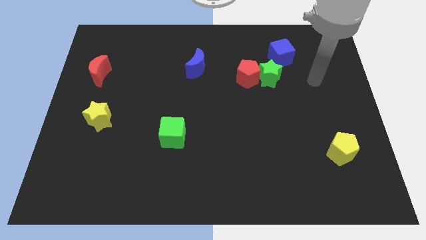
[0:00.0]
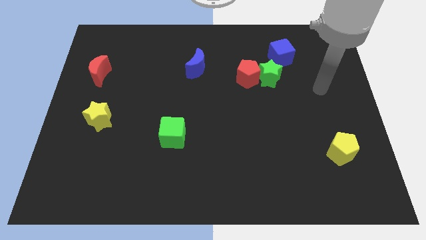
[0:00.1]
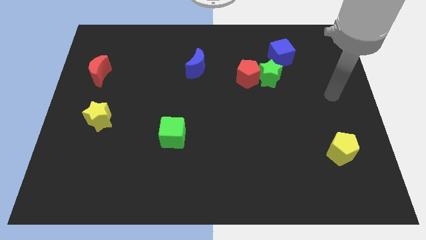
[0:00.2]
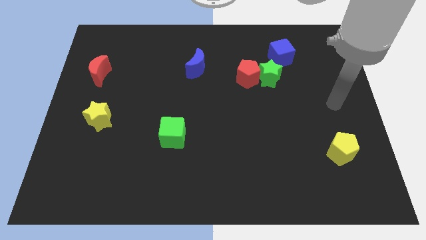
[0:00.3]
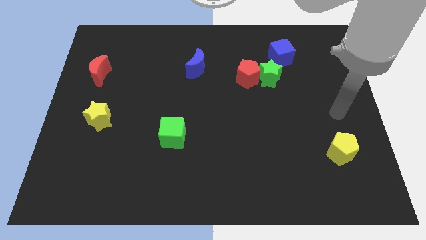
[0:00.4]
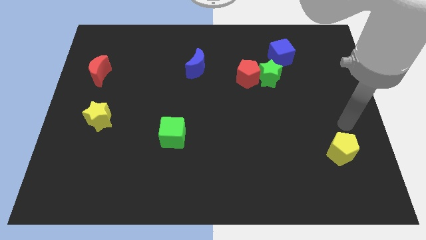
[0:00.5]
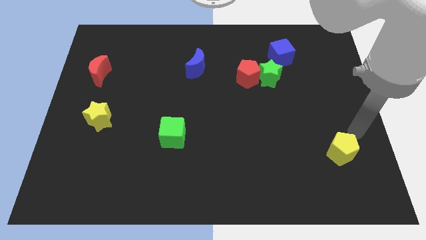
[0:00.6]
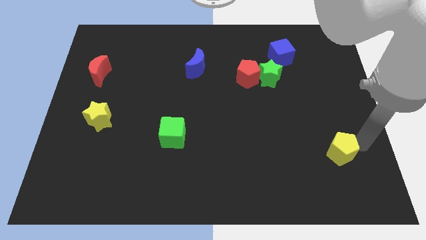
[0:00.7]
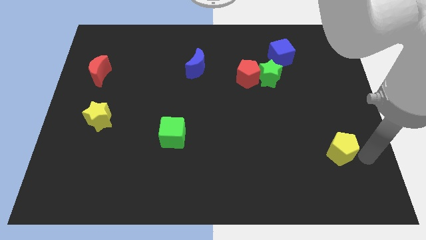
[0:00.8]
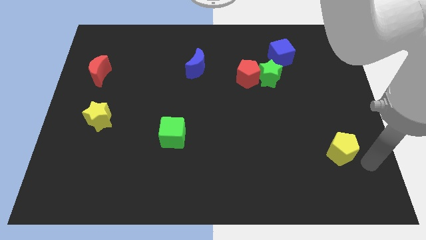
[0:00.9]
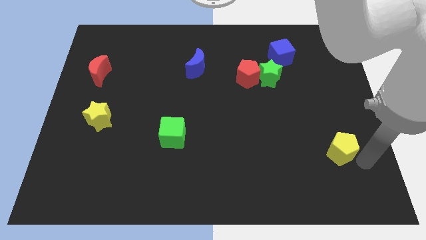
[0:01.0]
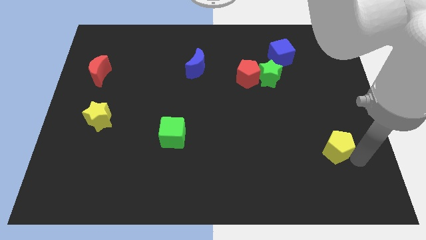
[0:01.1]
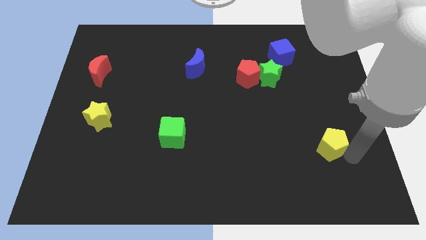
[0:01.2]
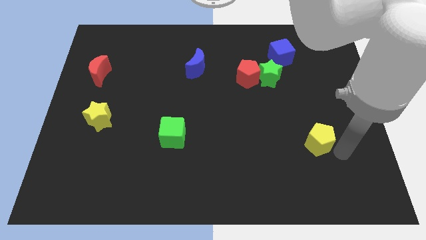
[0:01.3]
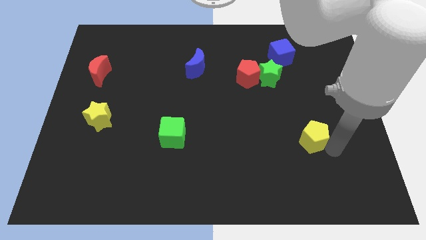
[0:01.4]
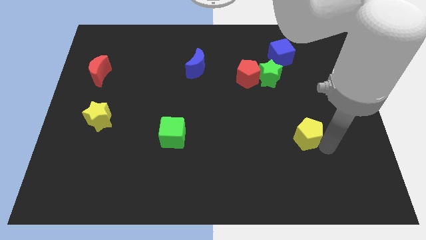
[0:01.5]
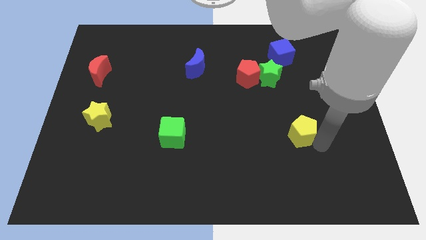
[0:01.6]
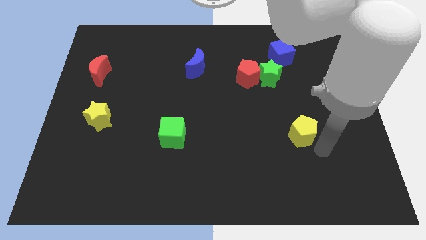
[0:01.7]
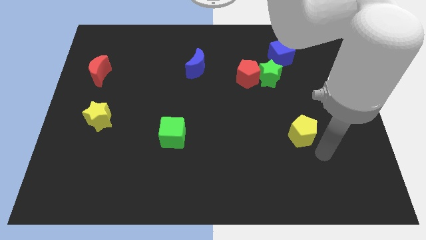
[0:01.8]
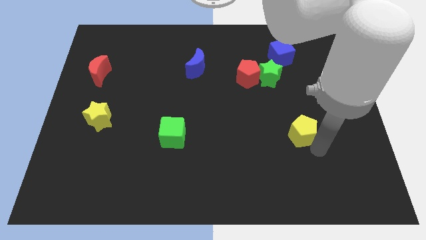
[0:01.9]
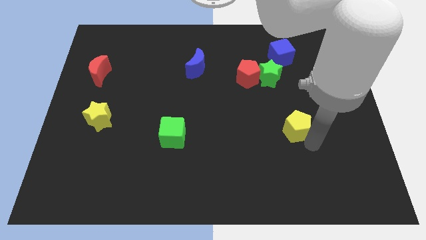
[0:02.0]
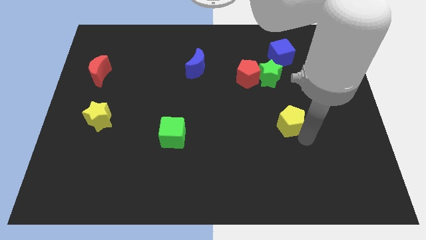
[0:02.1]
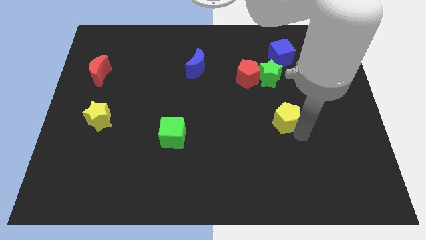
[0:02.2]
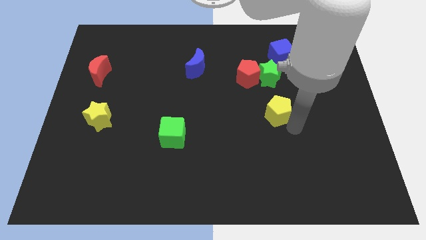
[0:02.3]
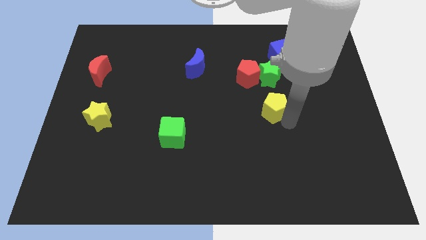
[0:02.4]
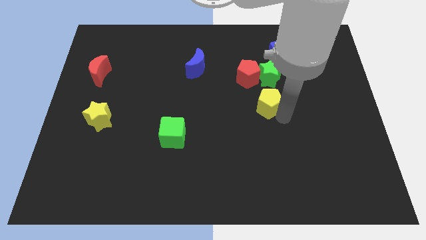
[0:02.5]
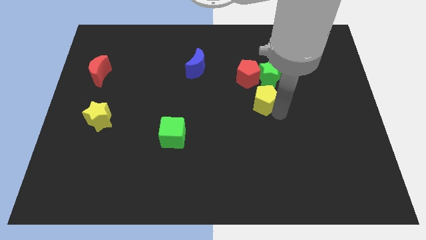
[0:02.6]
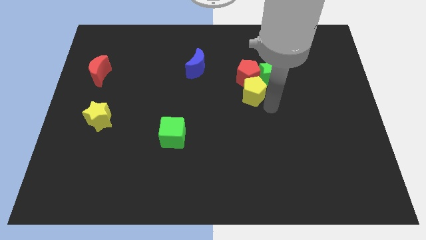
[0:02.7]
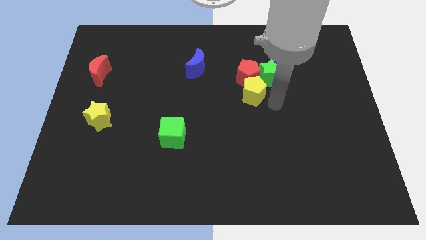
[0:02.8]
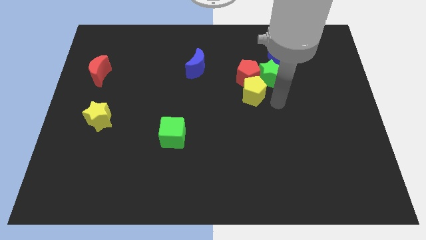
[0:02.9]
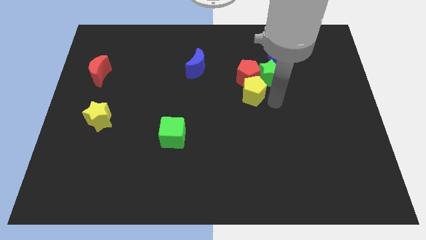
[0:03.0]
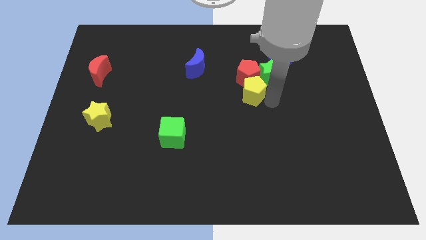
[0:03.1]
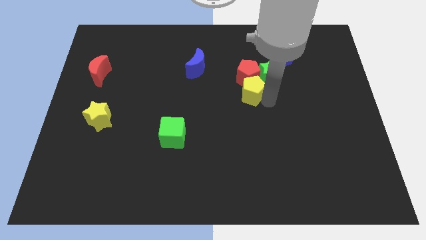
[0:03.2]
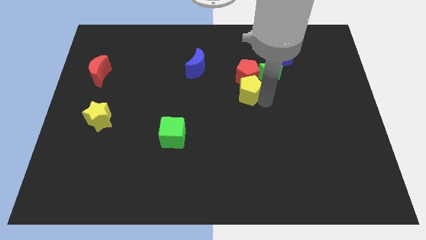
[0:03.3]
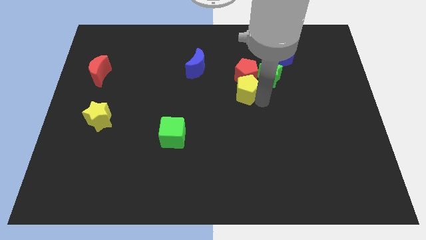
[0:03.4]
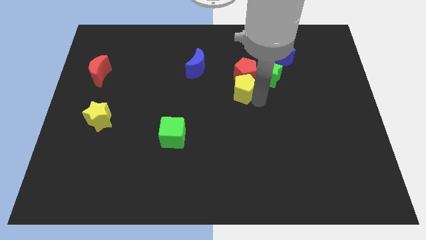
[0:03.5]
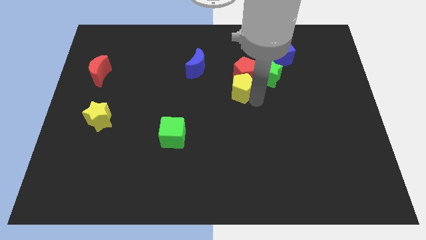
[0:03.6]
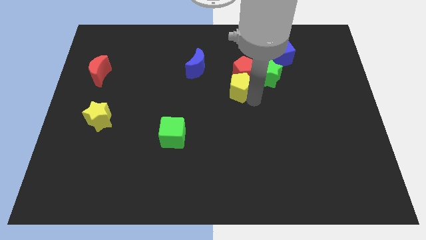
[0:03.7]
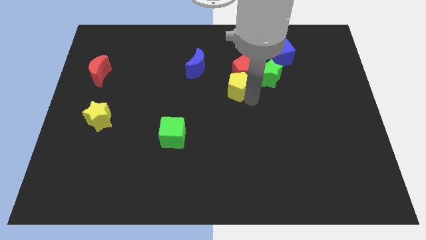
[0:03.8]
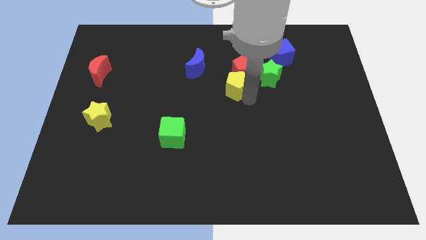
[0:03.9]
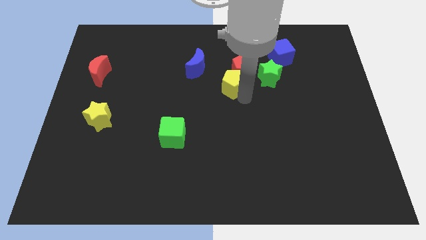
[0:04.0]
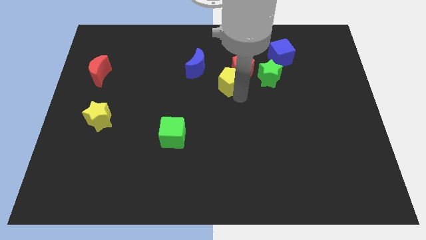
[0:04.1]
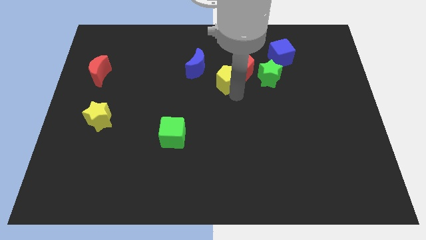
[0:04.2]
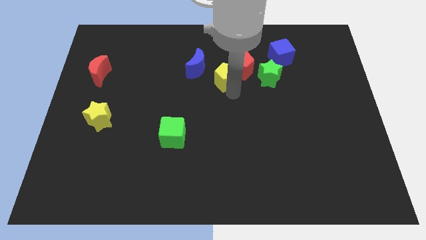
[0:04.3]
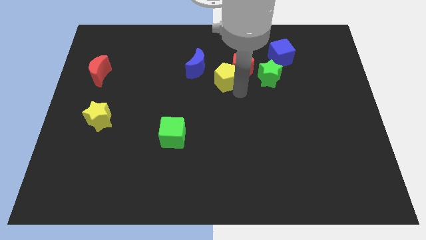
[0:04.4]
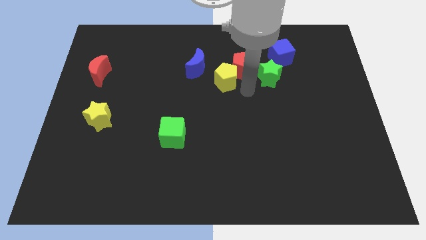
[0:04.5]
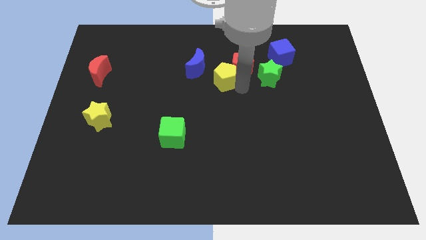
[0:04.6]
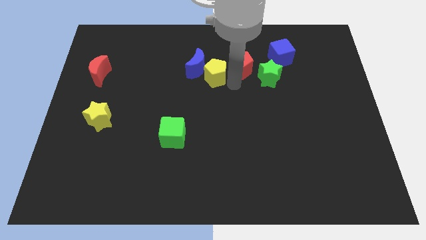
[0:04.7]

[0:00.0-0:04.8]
move the yellow pentagon close to the blue moon

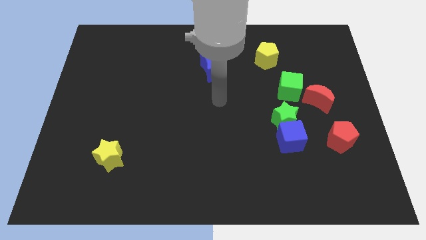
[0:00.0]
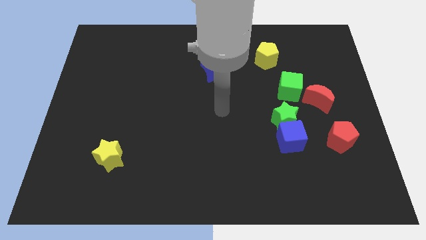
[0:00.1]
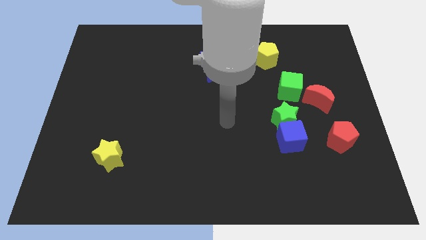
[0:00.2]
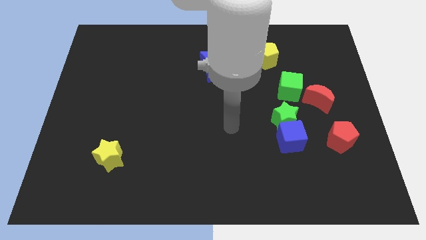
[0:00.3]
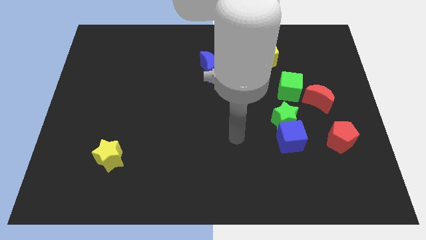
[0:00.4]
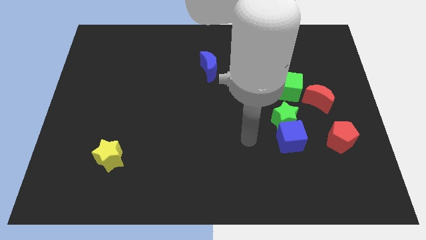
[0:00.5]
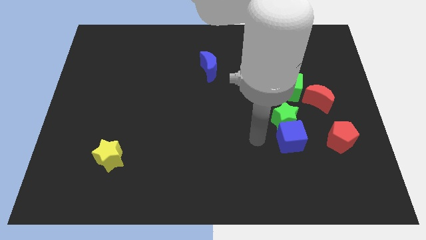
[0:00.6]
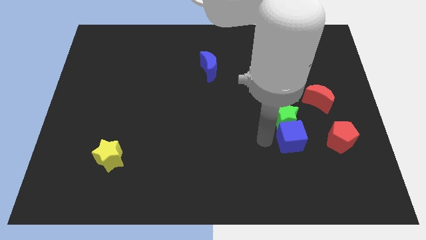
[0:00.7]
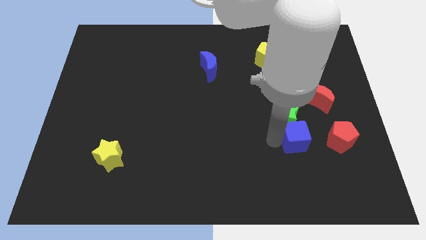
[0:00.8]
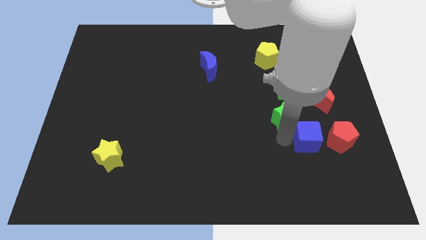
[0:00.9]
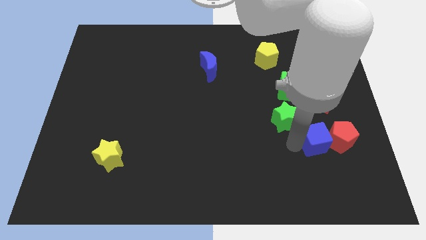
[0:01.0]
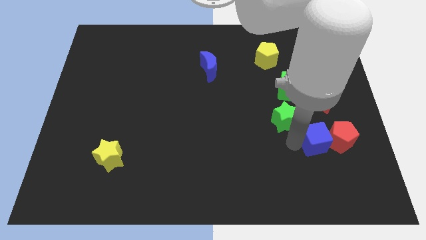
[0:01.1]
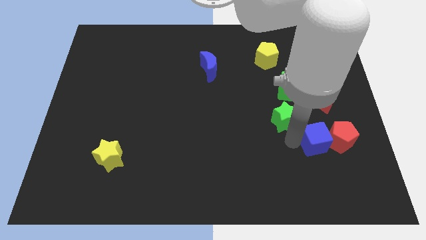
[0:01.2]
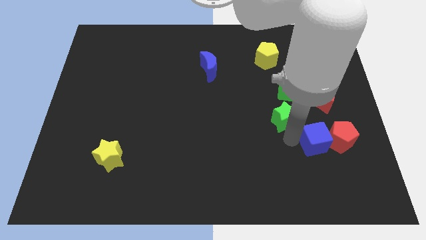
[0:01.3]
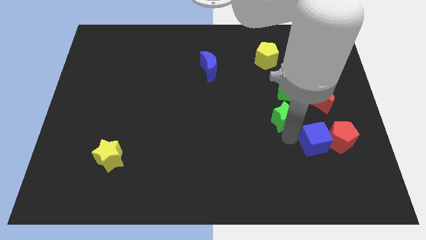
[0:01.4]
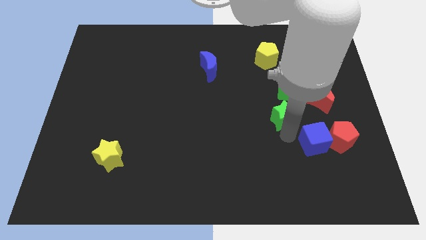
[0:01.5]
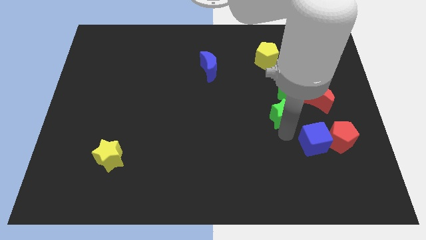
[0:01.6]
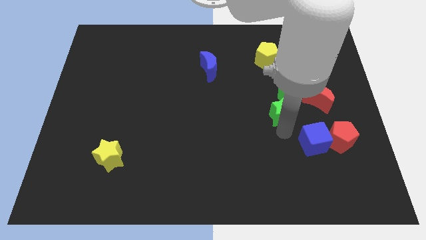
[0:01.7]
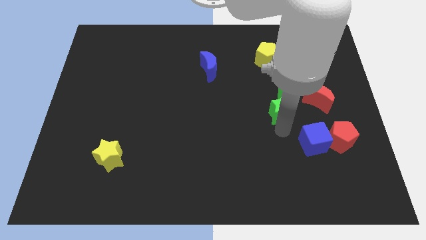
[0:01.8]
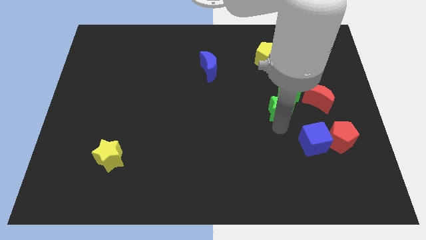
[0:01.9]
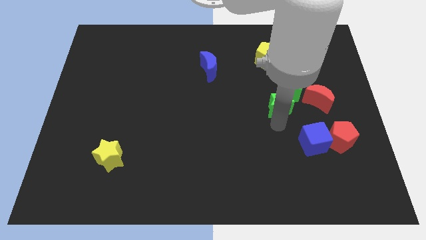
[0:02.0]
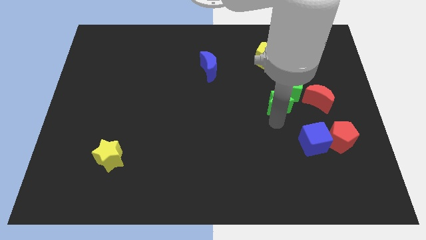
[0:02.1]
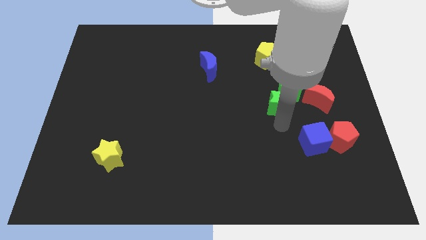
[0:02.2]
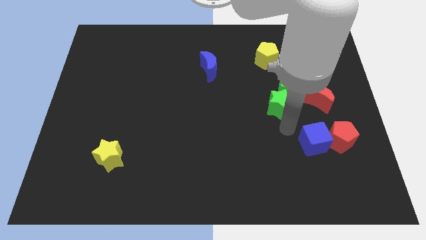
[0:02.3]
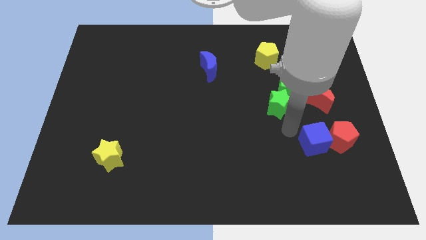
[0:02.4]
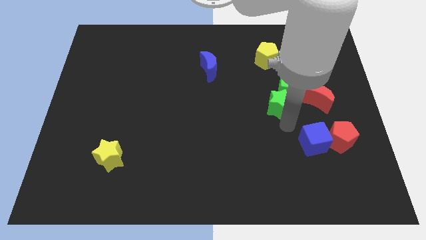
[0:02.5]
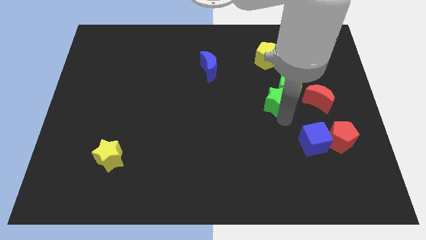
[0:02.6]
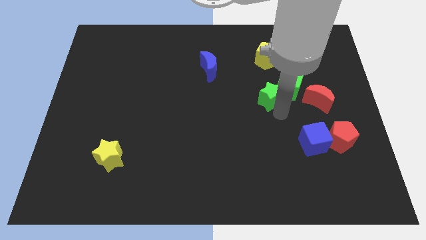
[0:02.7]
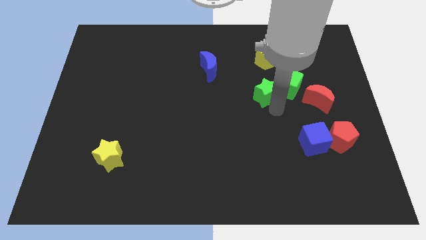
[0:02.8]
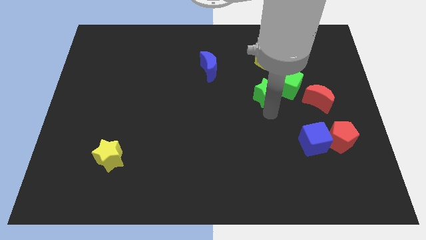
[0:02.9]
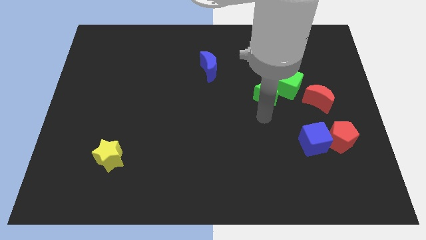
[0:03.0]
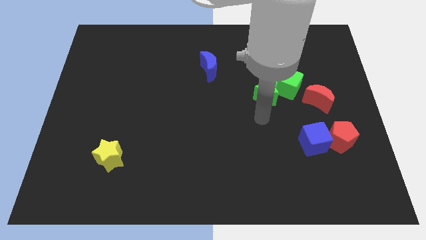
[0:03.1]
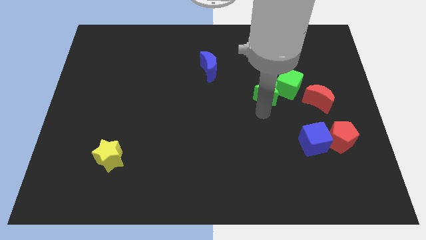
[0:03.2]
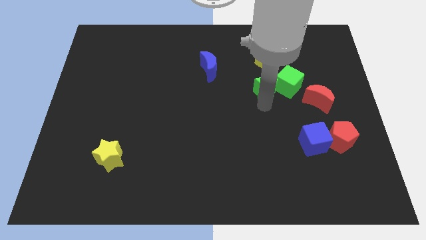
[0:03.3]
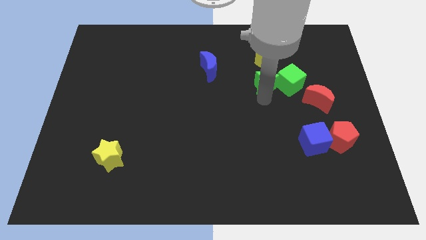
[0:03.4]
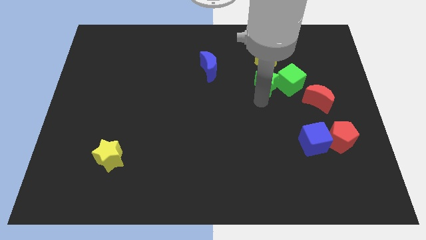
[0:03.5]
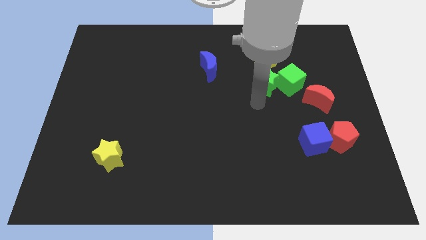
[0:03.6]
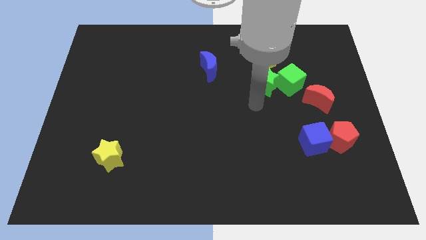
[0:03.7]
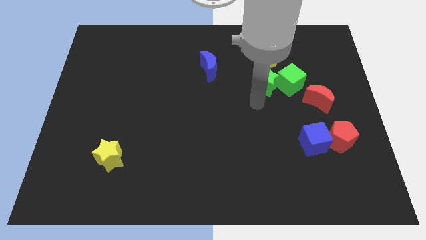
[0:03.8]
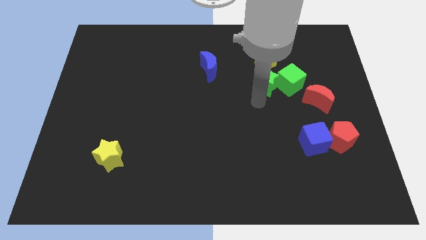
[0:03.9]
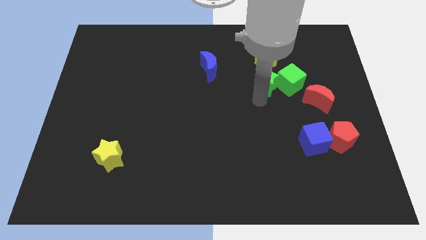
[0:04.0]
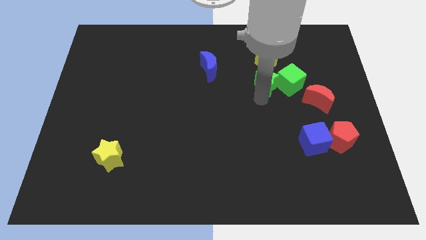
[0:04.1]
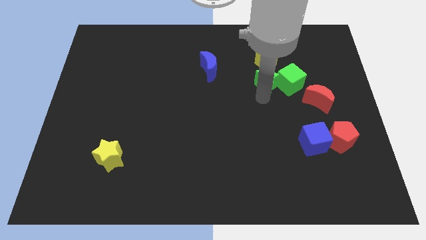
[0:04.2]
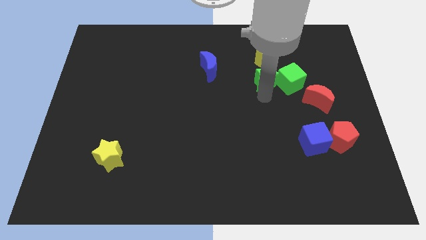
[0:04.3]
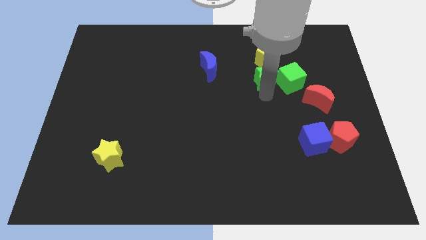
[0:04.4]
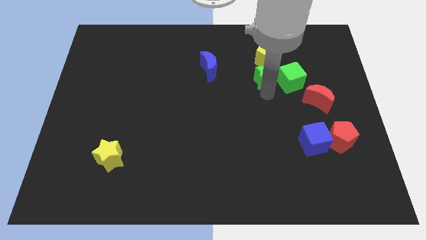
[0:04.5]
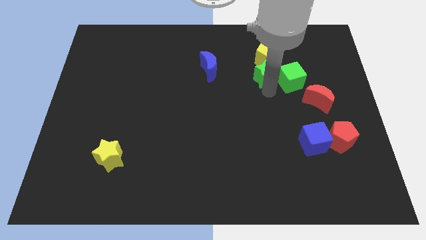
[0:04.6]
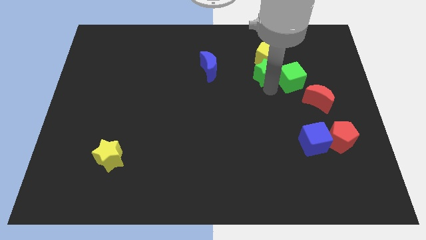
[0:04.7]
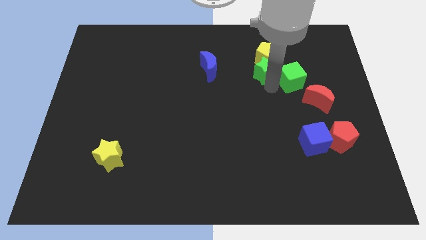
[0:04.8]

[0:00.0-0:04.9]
put the green star next to the yellow pentagon
